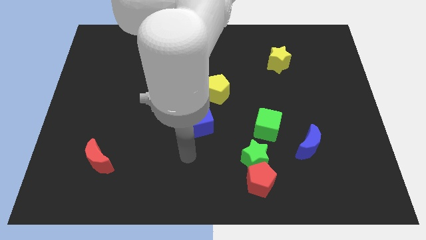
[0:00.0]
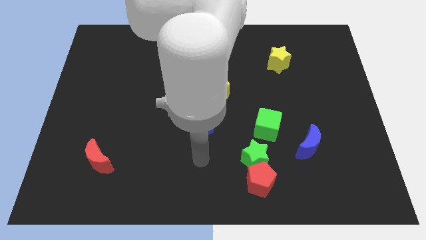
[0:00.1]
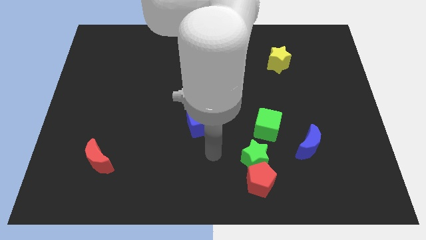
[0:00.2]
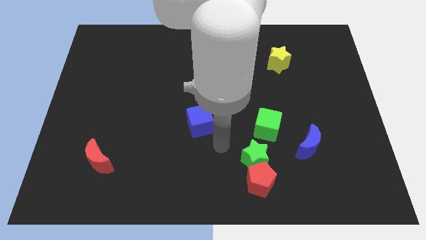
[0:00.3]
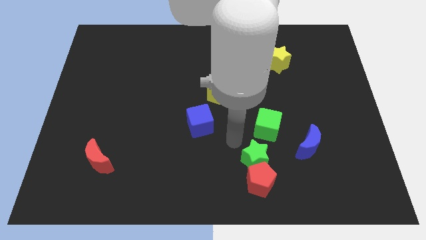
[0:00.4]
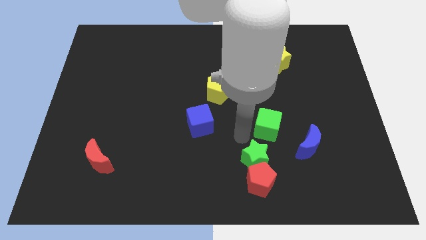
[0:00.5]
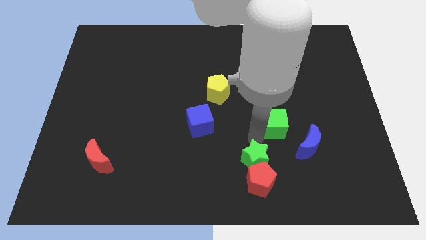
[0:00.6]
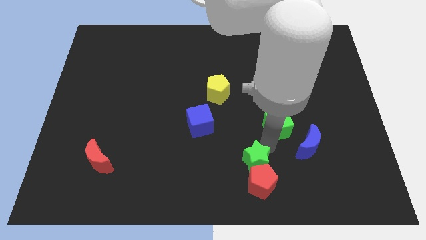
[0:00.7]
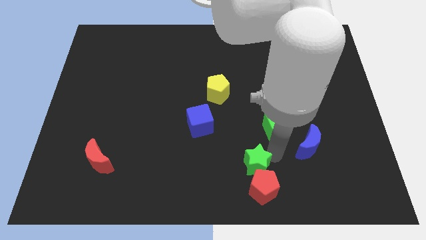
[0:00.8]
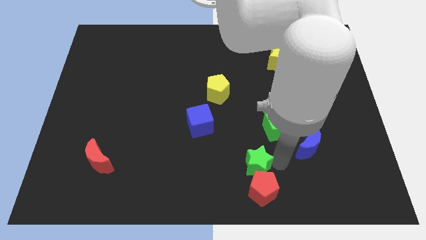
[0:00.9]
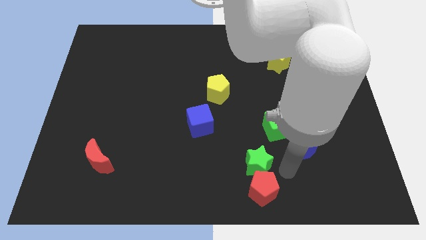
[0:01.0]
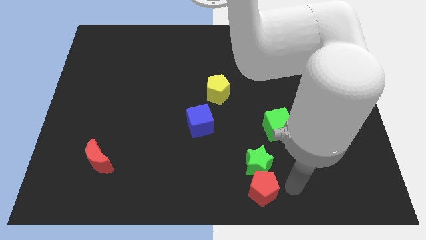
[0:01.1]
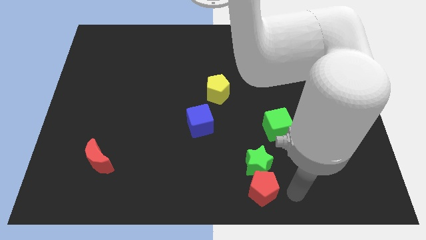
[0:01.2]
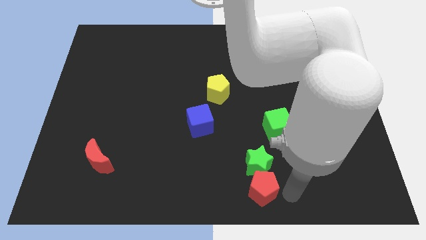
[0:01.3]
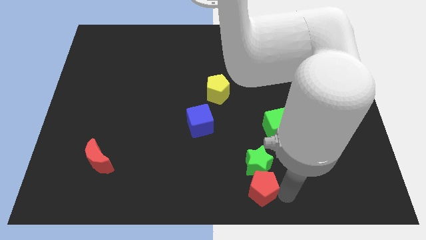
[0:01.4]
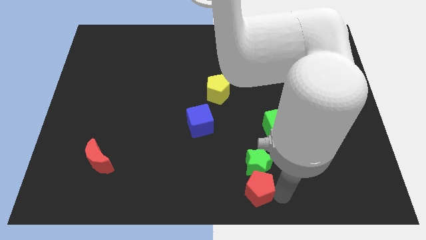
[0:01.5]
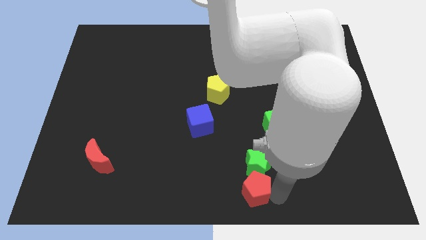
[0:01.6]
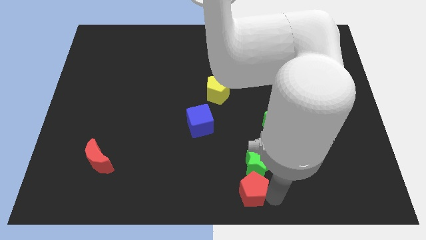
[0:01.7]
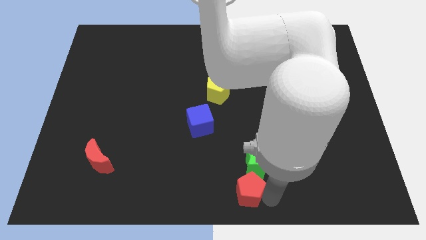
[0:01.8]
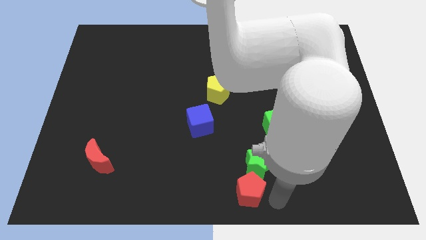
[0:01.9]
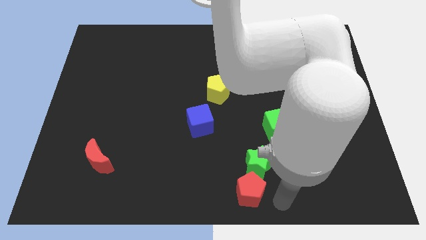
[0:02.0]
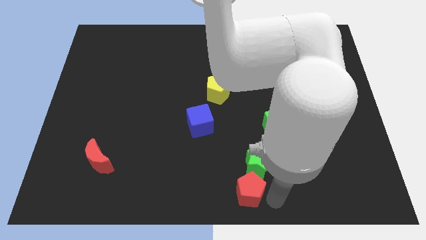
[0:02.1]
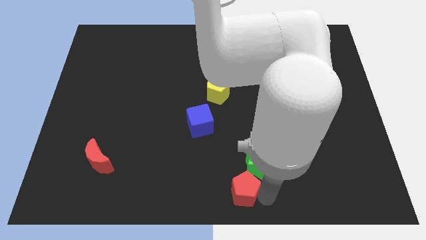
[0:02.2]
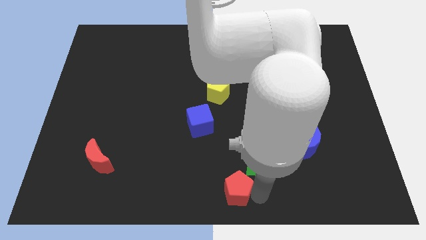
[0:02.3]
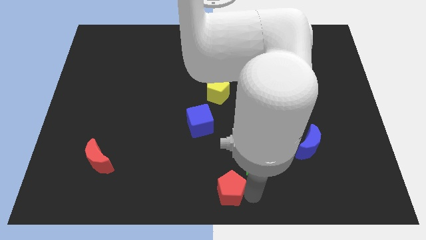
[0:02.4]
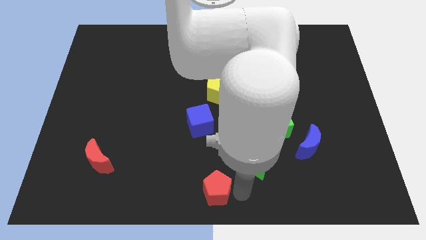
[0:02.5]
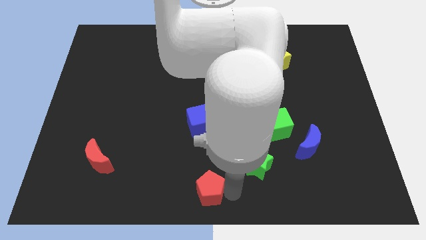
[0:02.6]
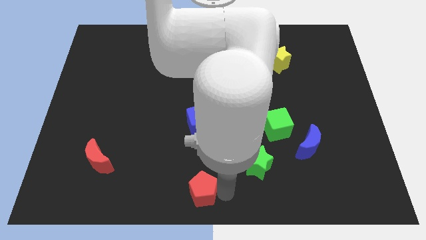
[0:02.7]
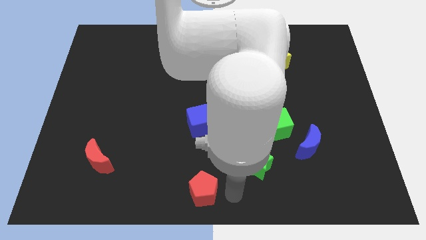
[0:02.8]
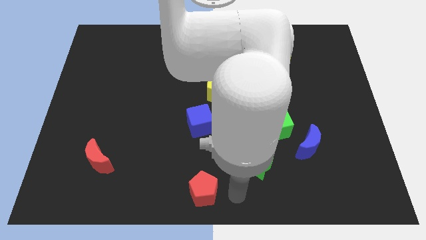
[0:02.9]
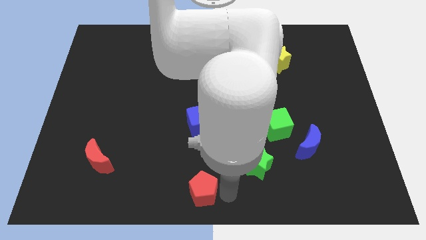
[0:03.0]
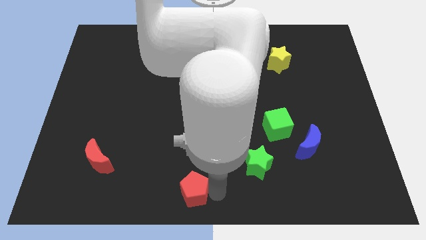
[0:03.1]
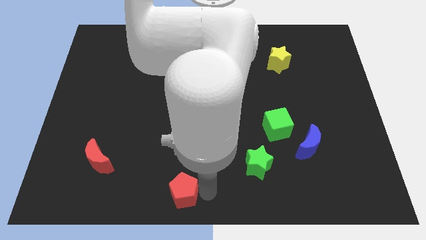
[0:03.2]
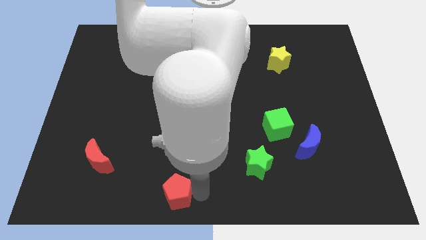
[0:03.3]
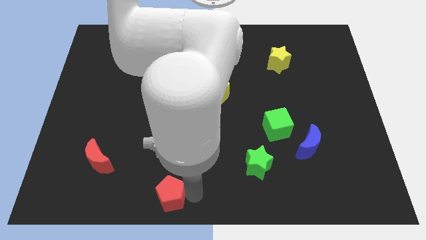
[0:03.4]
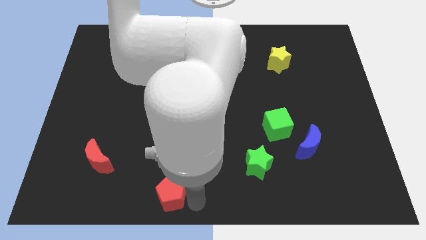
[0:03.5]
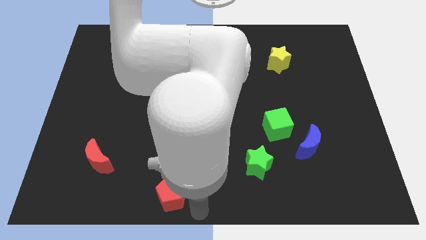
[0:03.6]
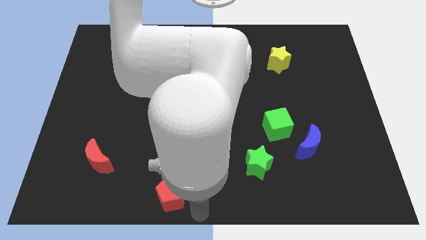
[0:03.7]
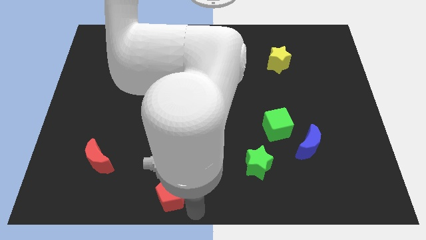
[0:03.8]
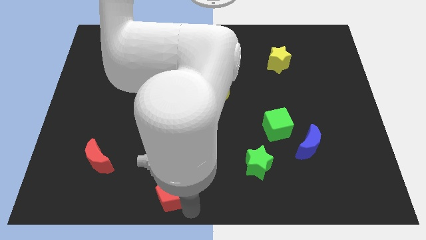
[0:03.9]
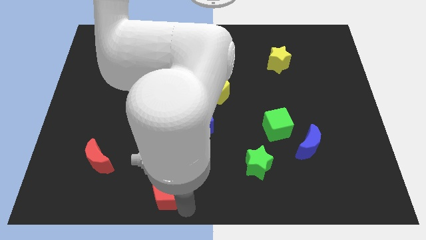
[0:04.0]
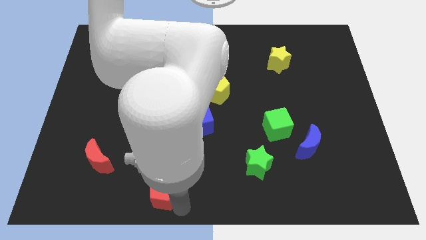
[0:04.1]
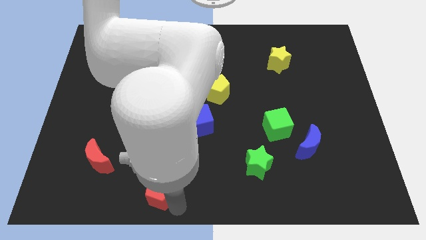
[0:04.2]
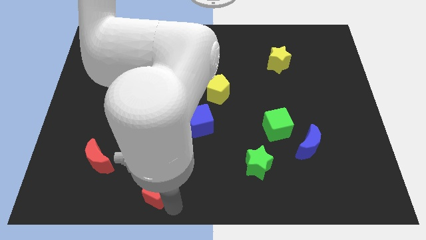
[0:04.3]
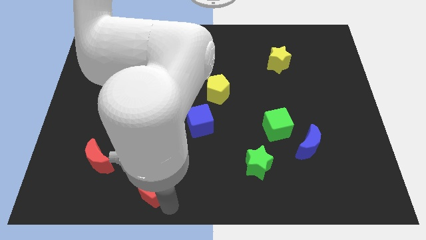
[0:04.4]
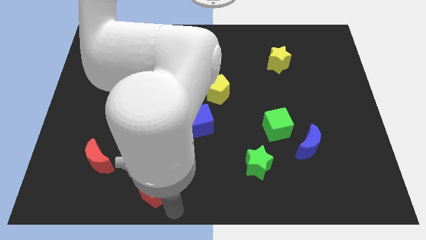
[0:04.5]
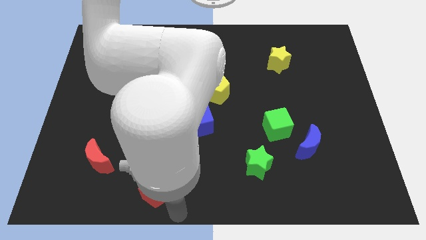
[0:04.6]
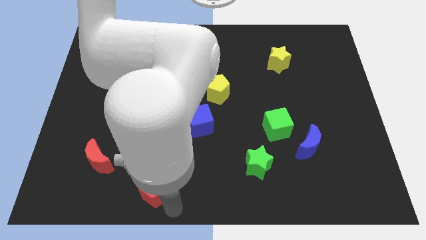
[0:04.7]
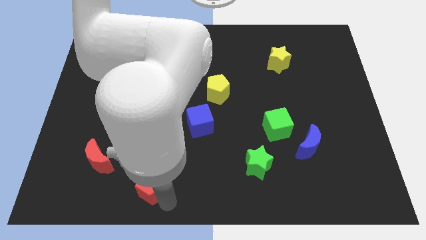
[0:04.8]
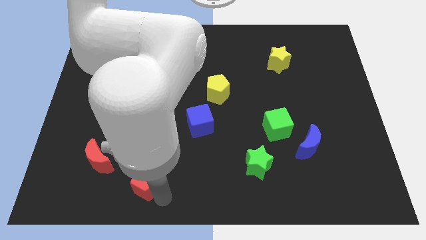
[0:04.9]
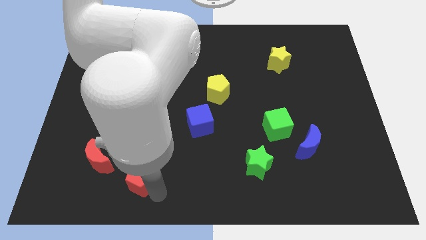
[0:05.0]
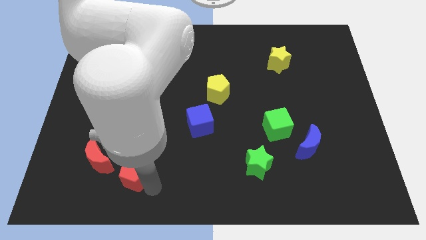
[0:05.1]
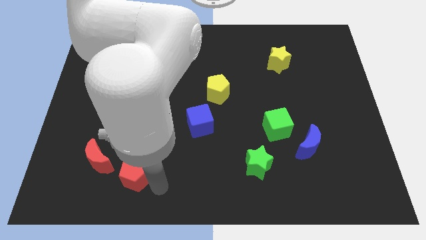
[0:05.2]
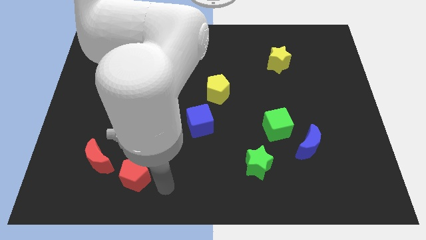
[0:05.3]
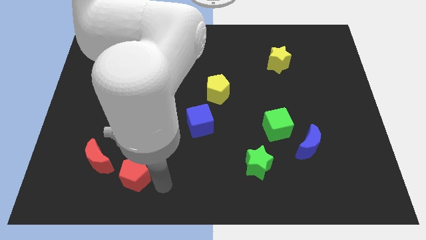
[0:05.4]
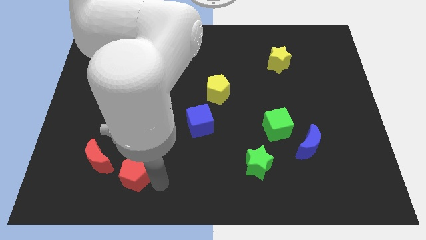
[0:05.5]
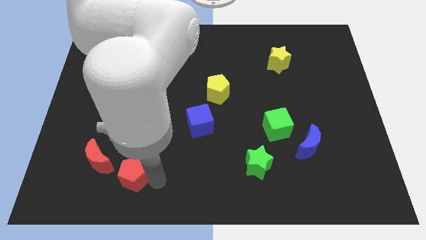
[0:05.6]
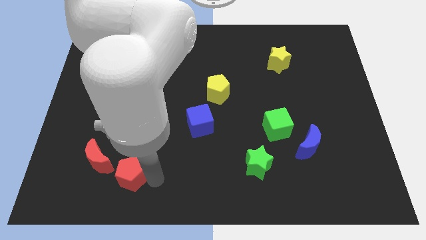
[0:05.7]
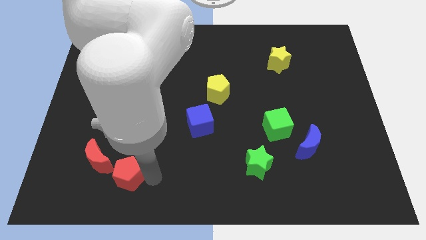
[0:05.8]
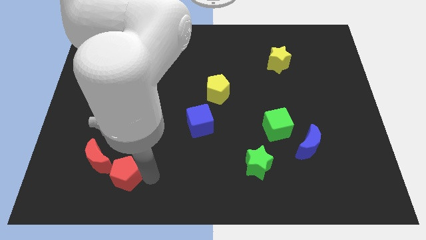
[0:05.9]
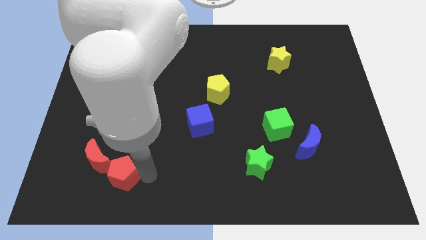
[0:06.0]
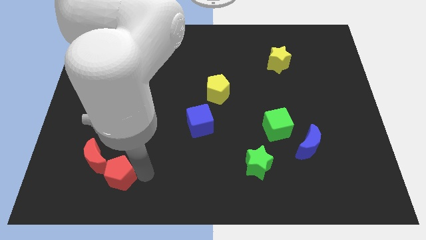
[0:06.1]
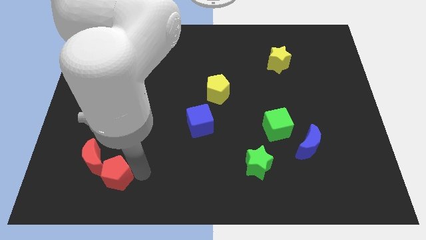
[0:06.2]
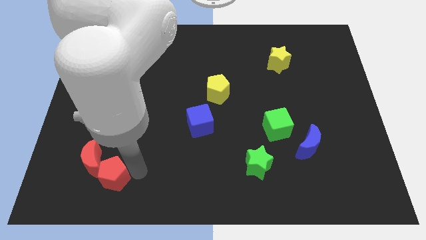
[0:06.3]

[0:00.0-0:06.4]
push the red pentagon next to the red moon
